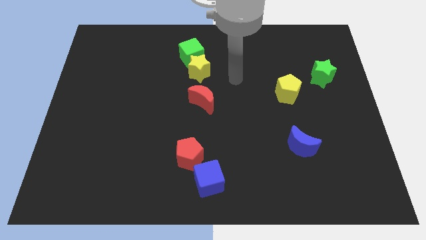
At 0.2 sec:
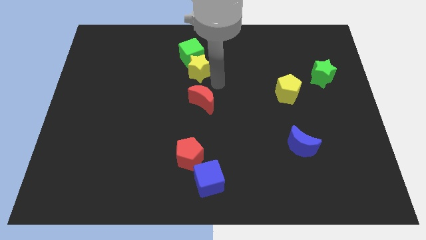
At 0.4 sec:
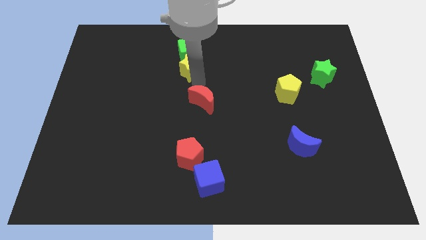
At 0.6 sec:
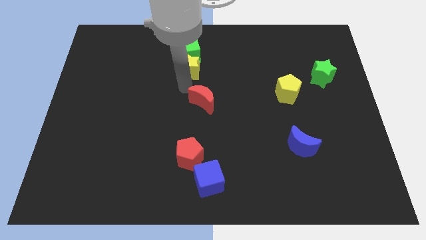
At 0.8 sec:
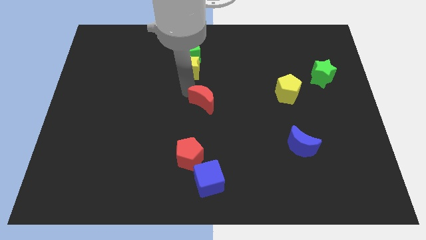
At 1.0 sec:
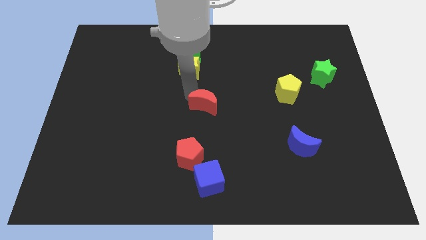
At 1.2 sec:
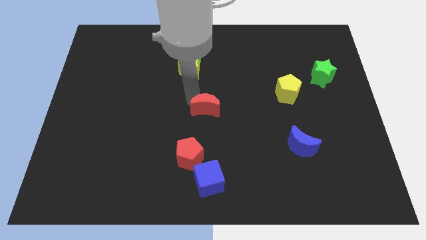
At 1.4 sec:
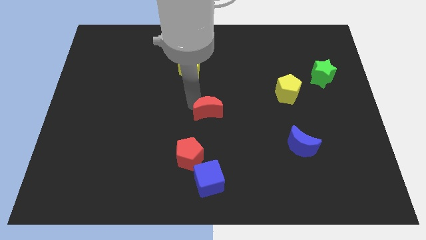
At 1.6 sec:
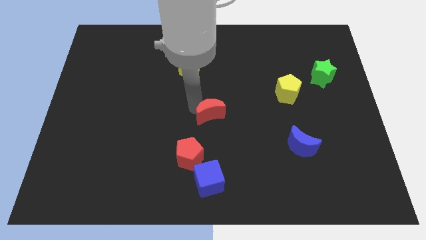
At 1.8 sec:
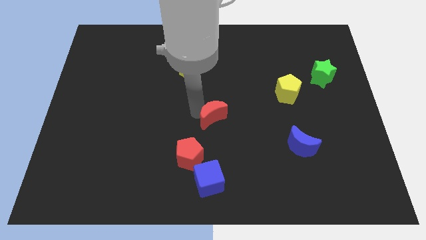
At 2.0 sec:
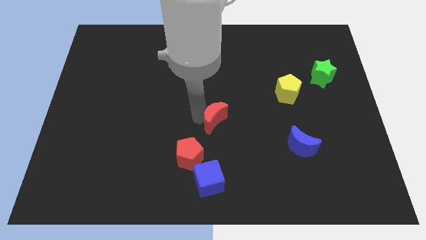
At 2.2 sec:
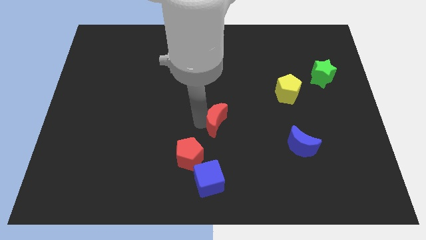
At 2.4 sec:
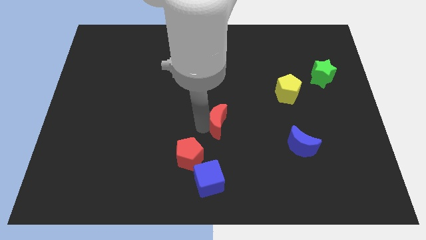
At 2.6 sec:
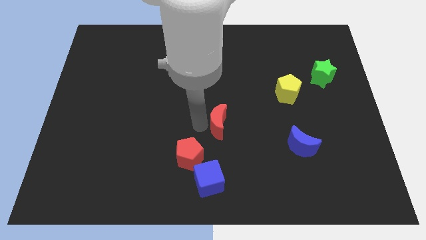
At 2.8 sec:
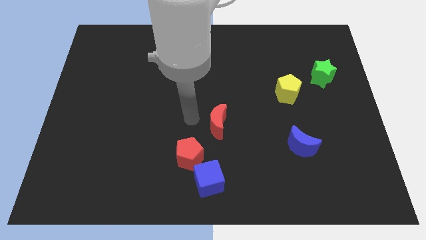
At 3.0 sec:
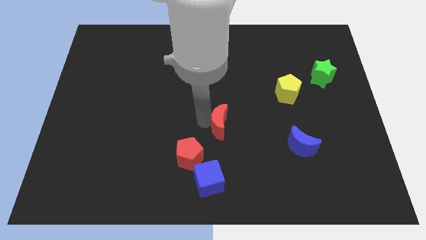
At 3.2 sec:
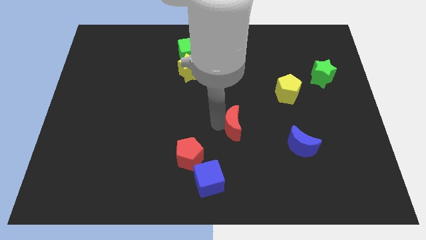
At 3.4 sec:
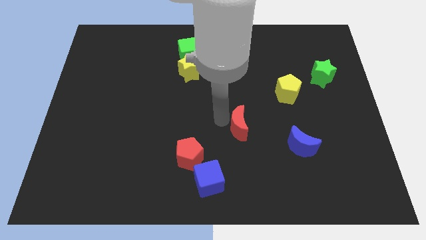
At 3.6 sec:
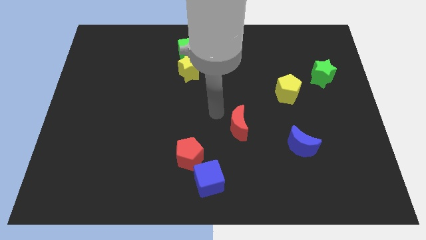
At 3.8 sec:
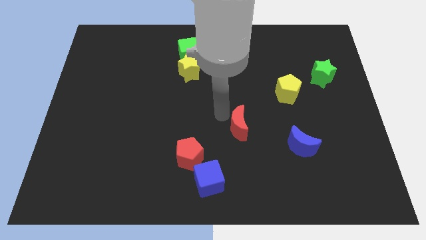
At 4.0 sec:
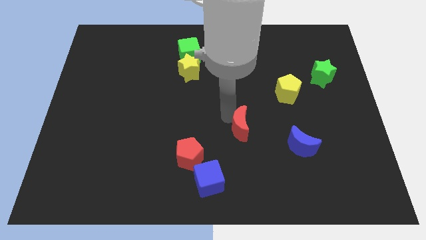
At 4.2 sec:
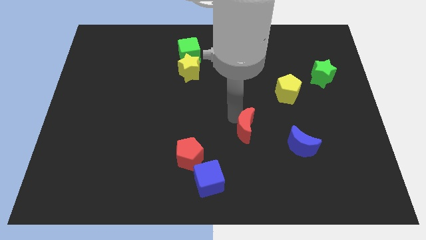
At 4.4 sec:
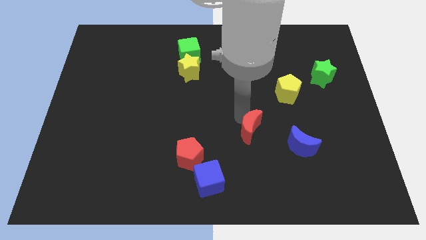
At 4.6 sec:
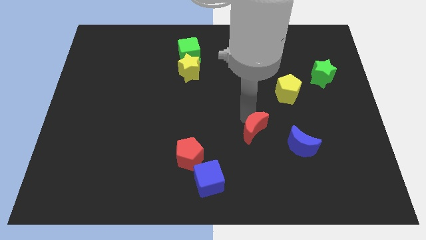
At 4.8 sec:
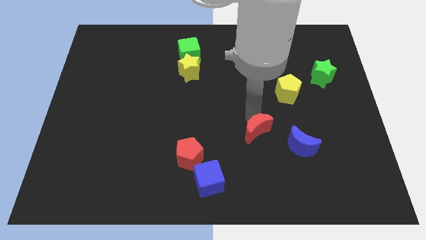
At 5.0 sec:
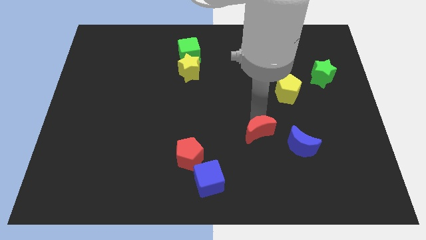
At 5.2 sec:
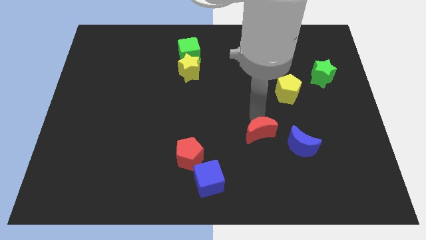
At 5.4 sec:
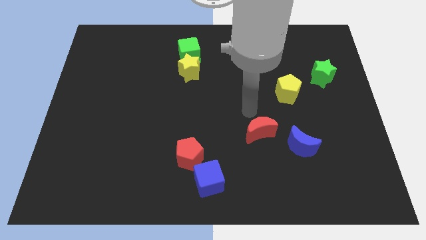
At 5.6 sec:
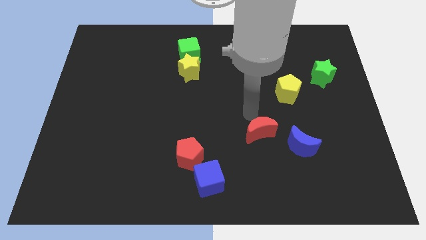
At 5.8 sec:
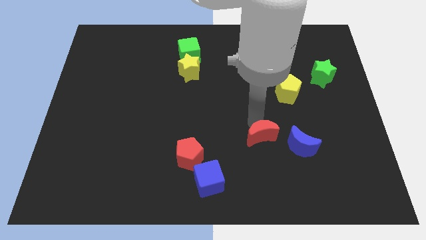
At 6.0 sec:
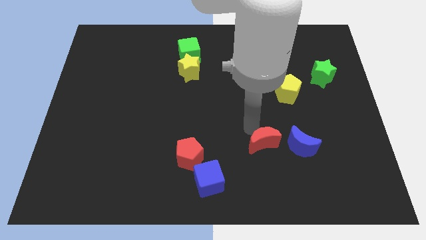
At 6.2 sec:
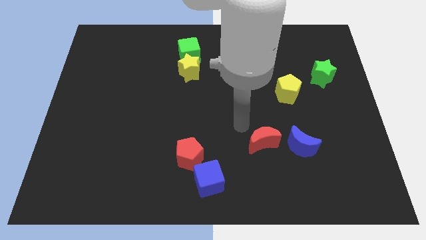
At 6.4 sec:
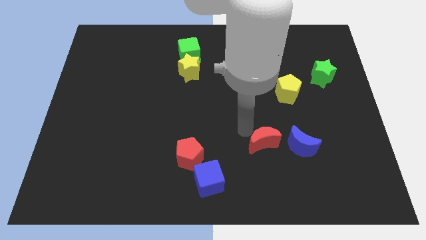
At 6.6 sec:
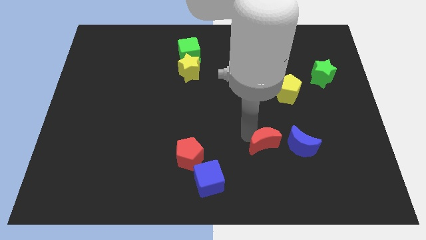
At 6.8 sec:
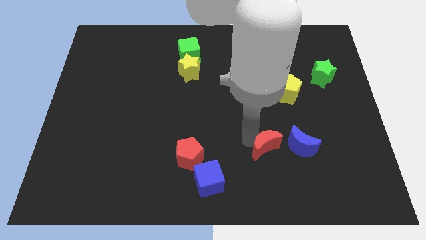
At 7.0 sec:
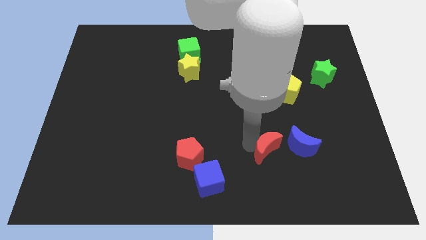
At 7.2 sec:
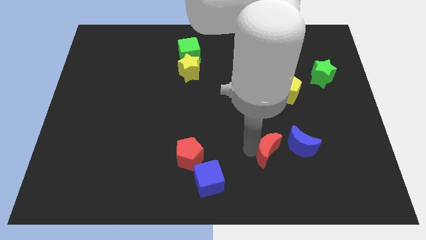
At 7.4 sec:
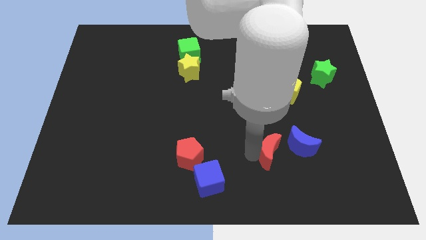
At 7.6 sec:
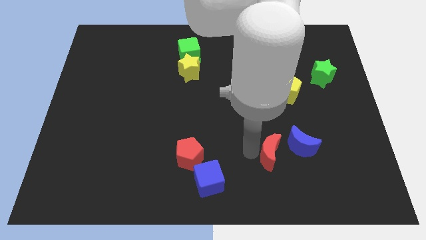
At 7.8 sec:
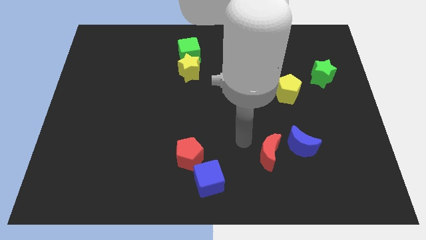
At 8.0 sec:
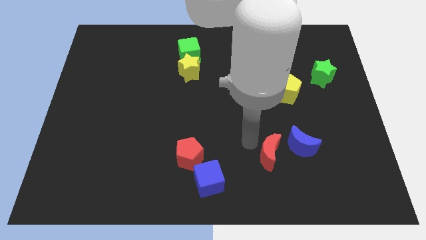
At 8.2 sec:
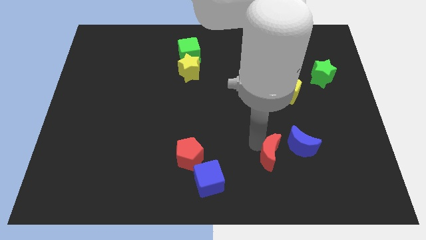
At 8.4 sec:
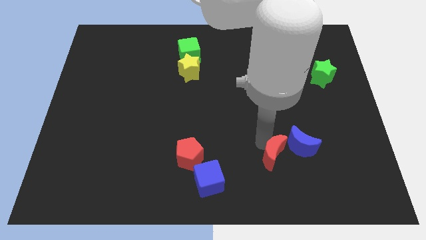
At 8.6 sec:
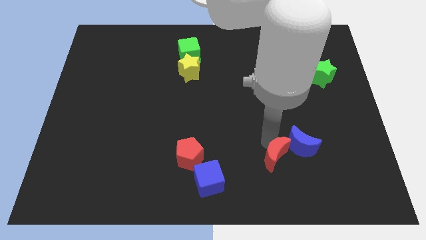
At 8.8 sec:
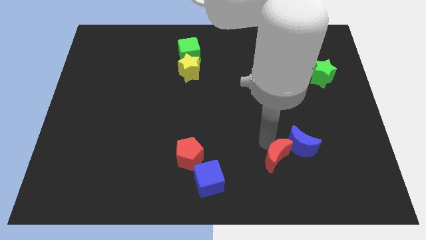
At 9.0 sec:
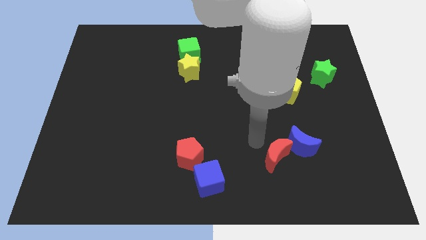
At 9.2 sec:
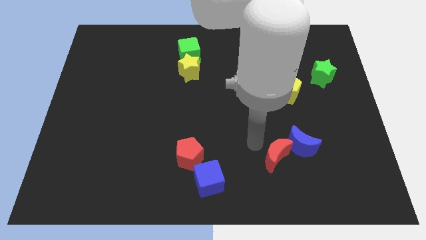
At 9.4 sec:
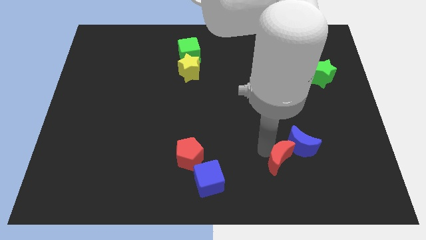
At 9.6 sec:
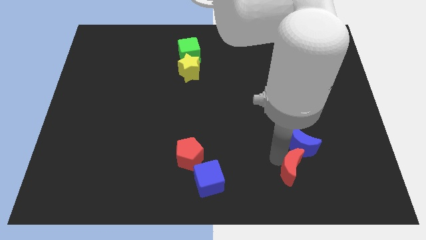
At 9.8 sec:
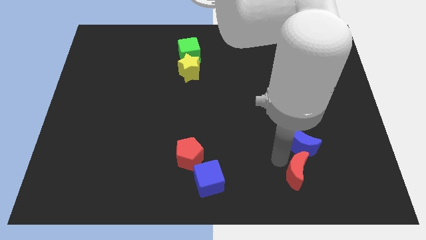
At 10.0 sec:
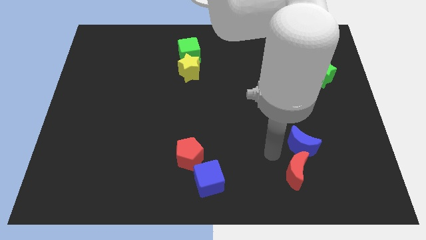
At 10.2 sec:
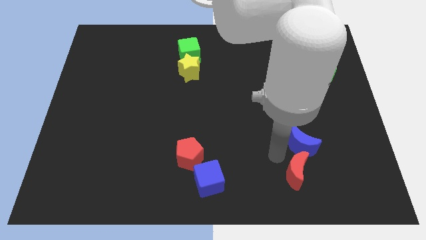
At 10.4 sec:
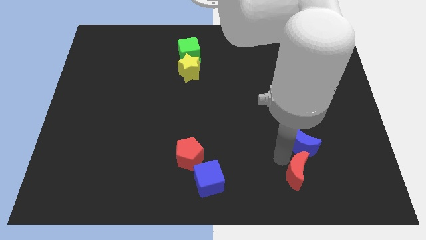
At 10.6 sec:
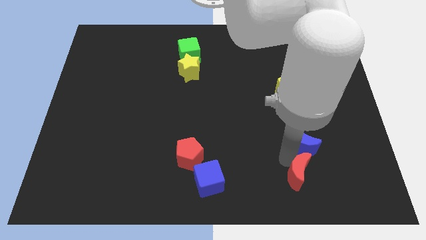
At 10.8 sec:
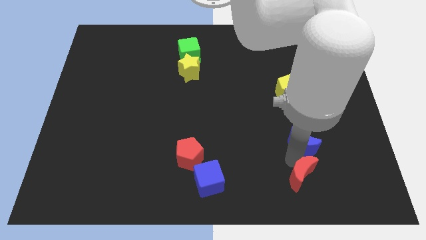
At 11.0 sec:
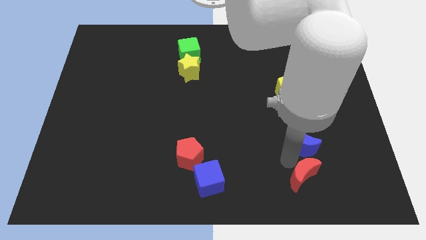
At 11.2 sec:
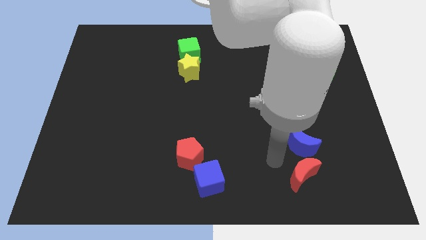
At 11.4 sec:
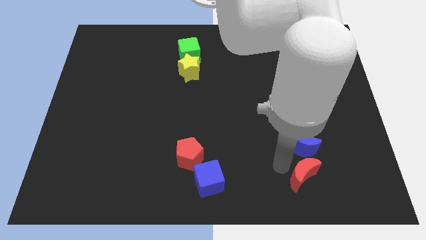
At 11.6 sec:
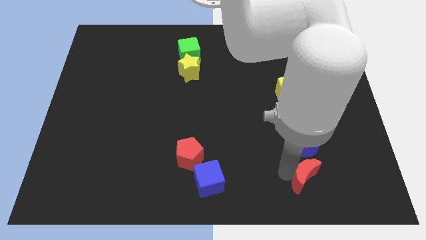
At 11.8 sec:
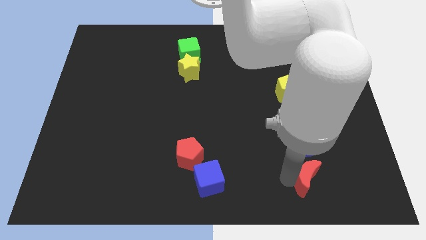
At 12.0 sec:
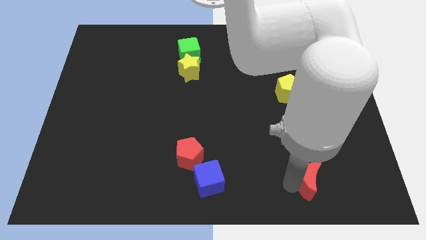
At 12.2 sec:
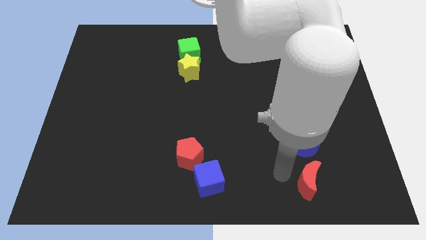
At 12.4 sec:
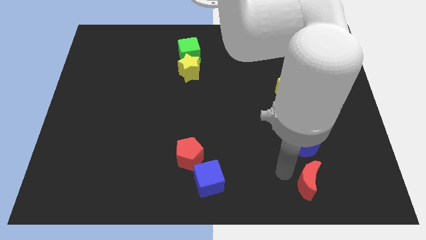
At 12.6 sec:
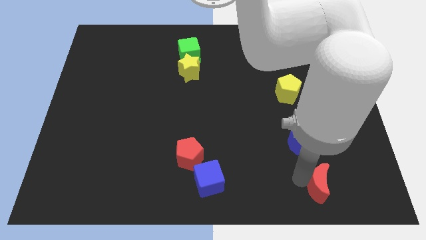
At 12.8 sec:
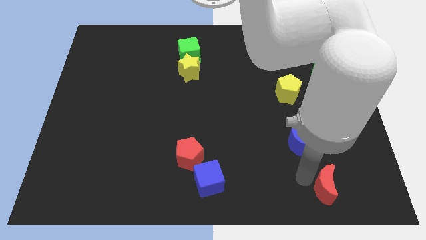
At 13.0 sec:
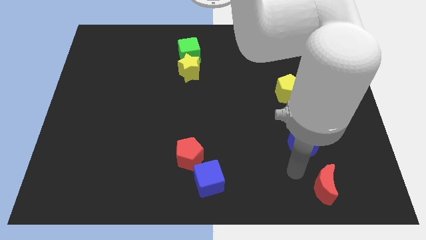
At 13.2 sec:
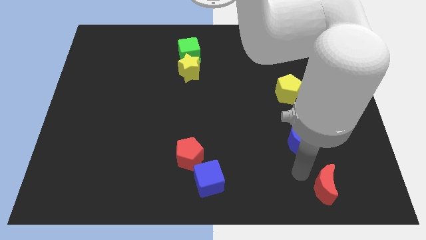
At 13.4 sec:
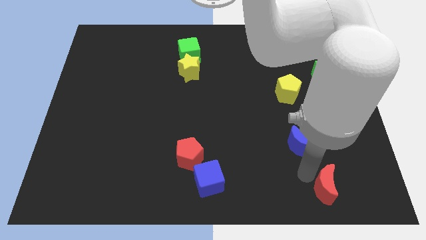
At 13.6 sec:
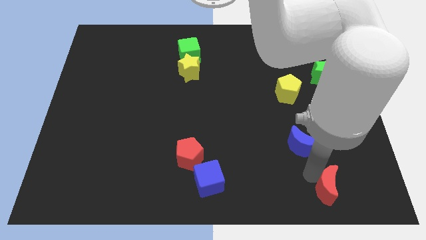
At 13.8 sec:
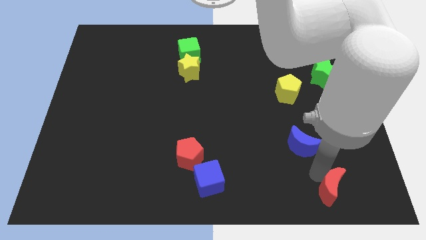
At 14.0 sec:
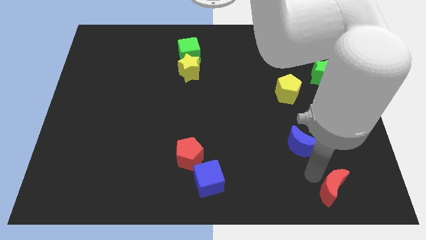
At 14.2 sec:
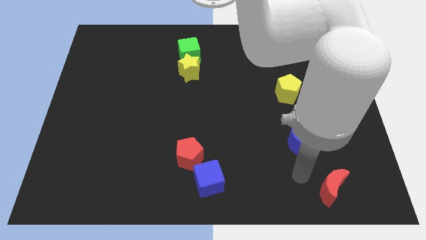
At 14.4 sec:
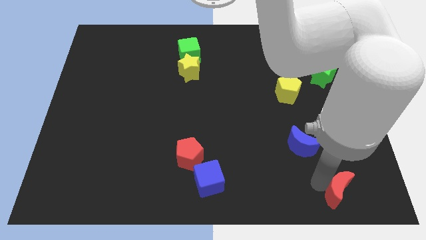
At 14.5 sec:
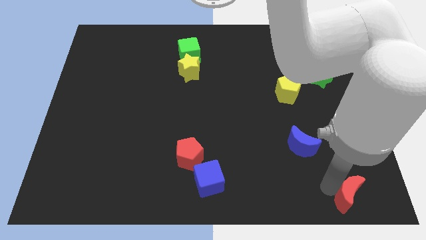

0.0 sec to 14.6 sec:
slide the red moon to the bottom right of the board
